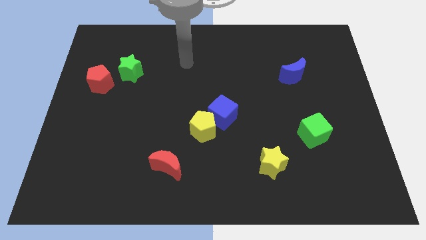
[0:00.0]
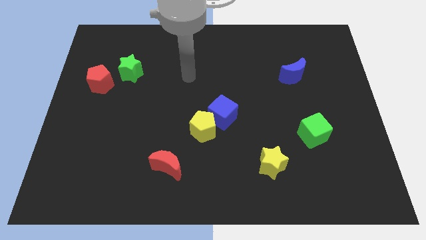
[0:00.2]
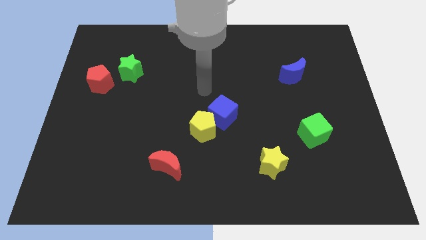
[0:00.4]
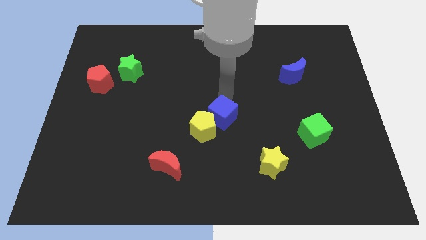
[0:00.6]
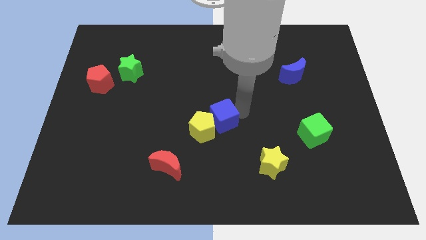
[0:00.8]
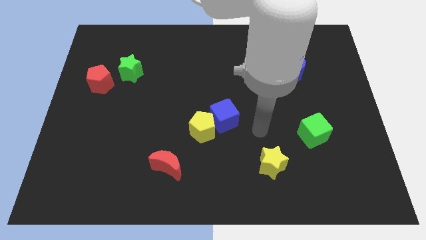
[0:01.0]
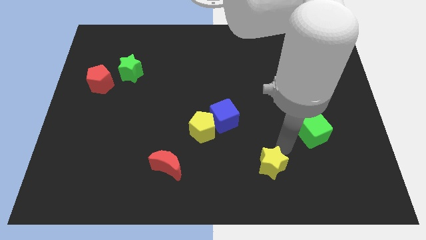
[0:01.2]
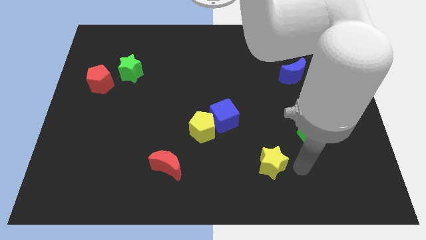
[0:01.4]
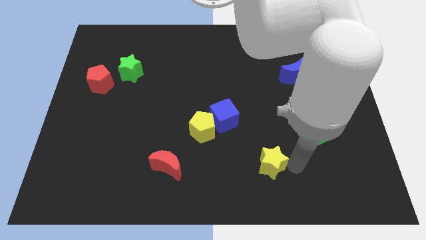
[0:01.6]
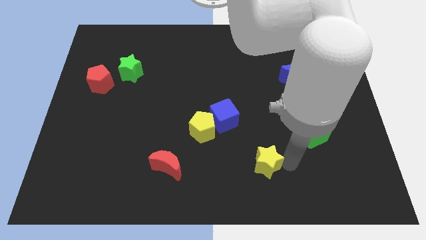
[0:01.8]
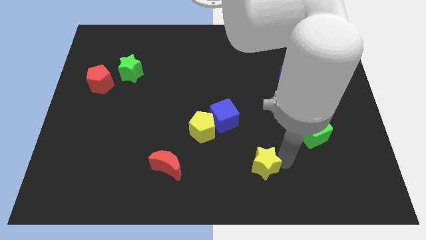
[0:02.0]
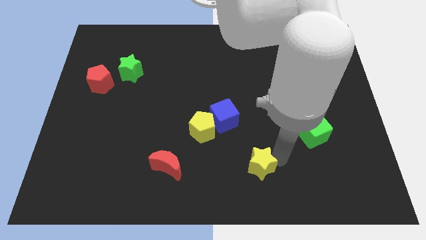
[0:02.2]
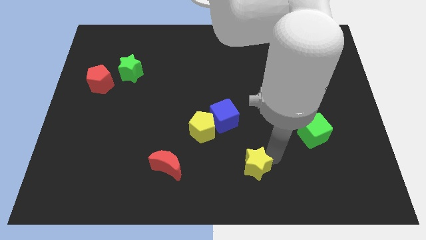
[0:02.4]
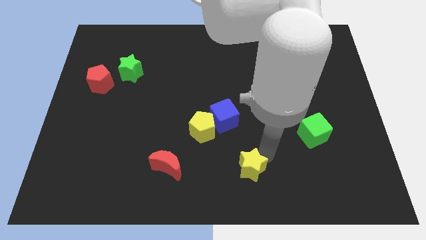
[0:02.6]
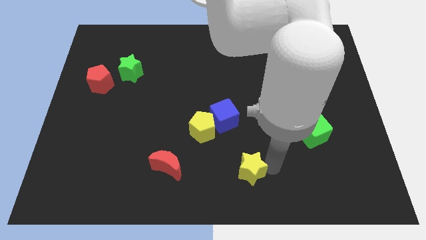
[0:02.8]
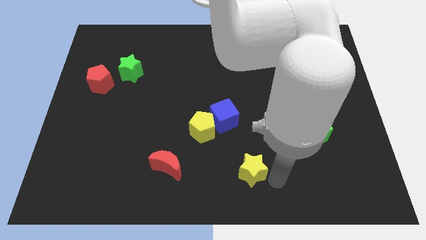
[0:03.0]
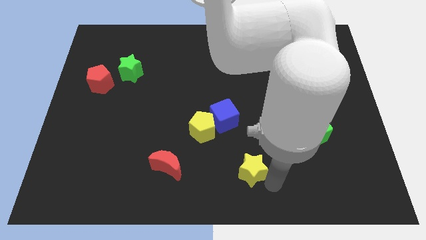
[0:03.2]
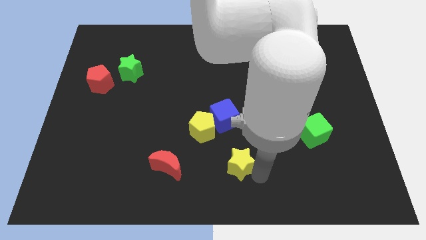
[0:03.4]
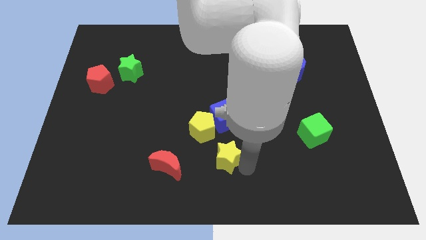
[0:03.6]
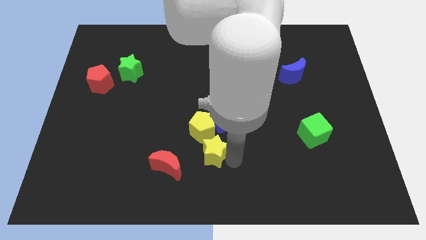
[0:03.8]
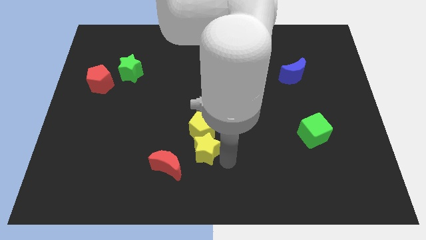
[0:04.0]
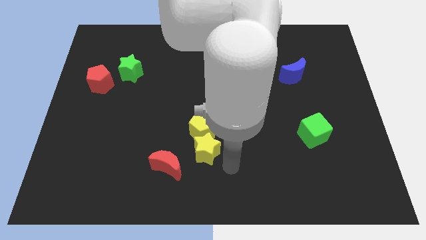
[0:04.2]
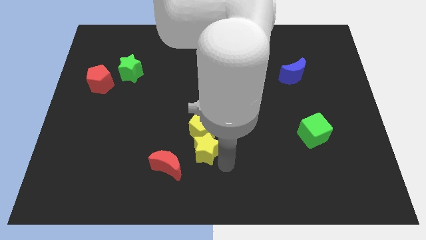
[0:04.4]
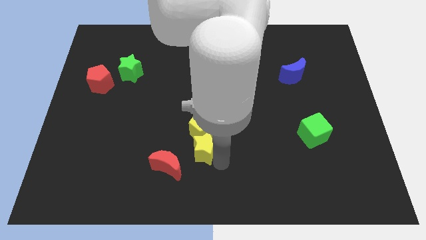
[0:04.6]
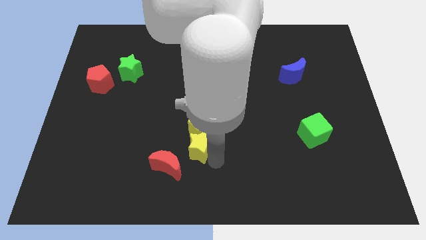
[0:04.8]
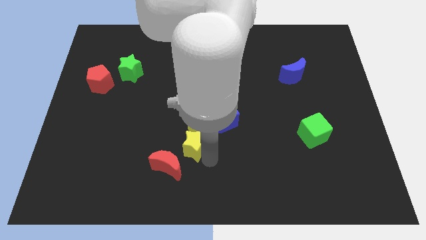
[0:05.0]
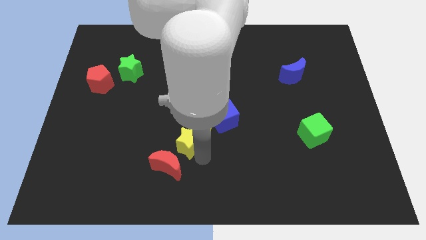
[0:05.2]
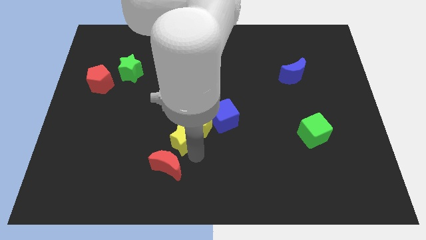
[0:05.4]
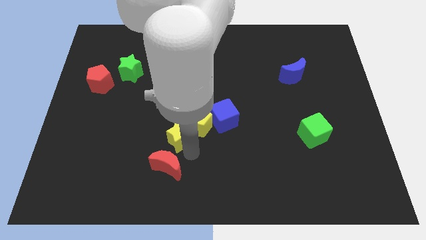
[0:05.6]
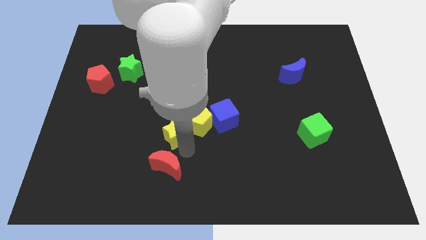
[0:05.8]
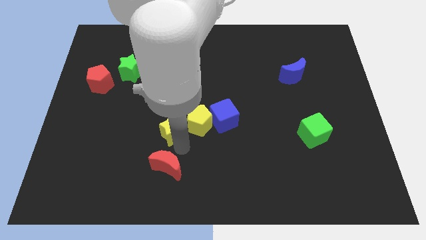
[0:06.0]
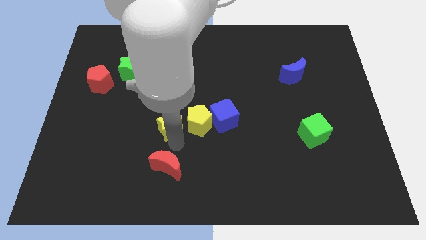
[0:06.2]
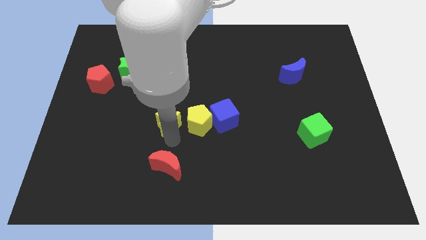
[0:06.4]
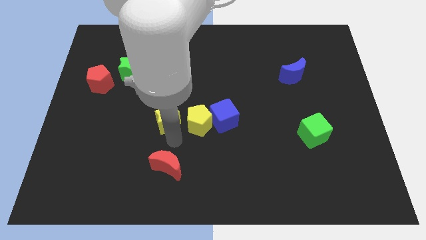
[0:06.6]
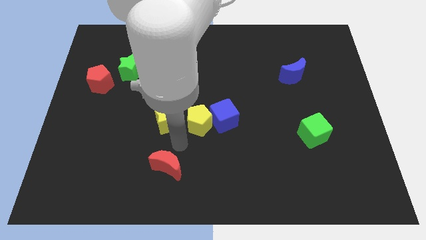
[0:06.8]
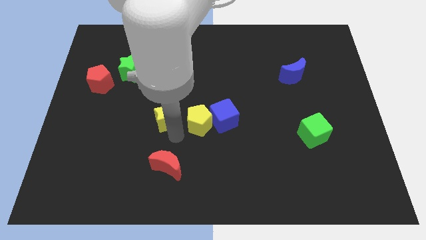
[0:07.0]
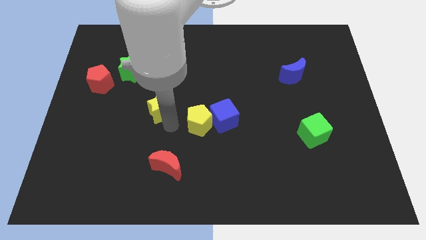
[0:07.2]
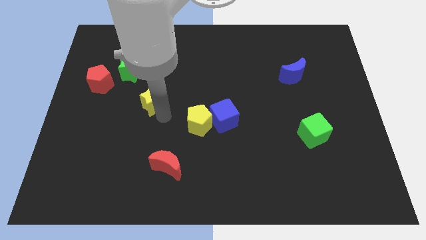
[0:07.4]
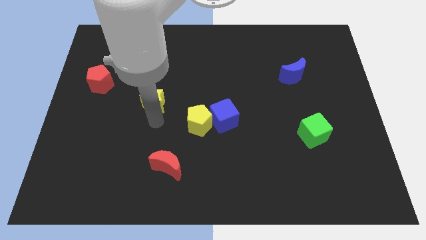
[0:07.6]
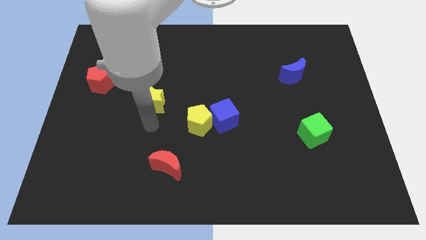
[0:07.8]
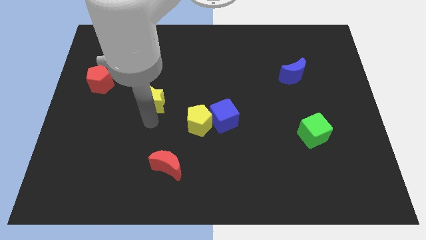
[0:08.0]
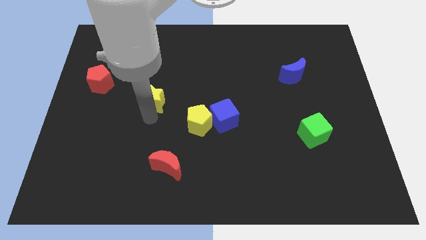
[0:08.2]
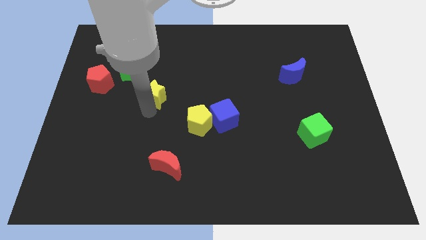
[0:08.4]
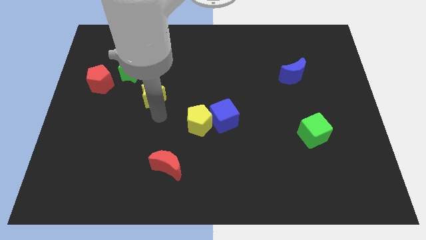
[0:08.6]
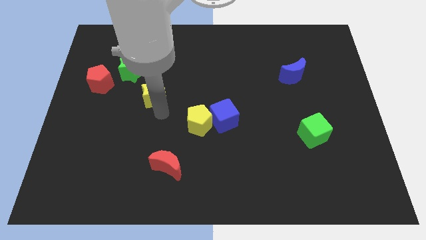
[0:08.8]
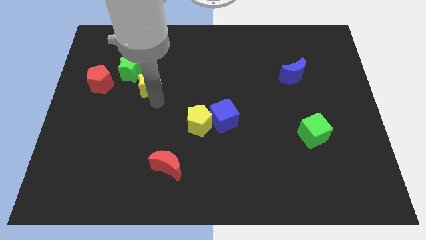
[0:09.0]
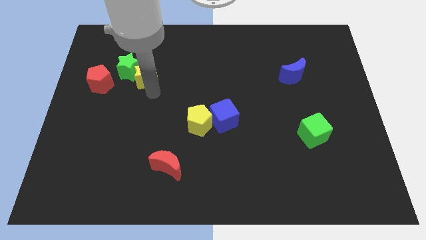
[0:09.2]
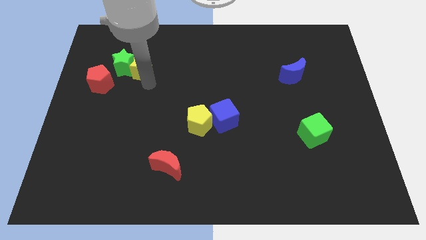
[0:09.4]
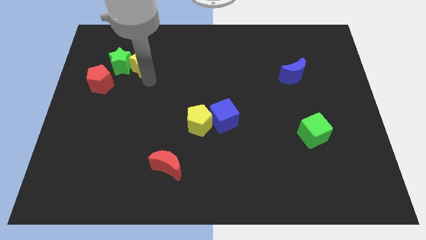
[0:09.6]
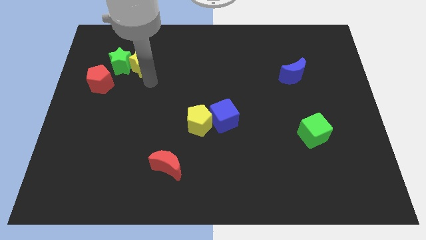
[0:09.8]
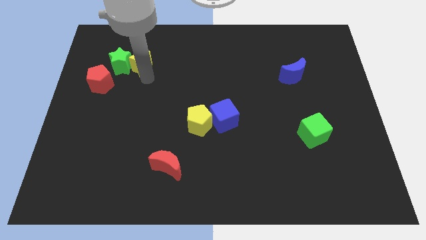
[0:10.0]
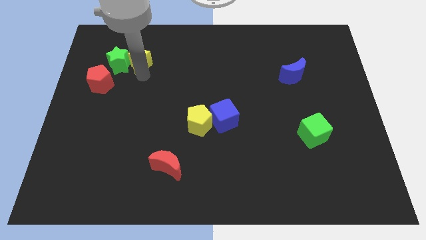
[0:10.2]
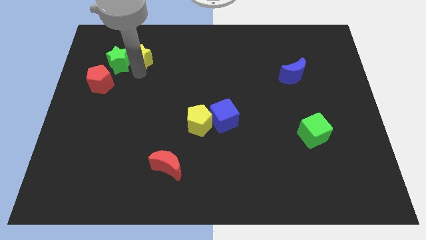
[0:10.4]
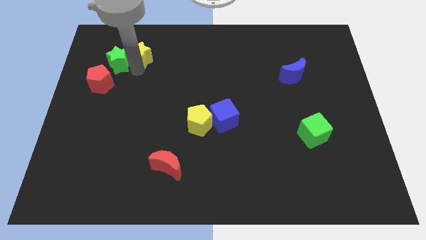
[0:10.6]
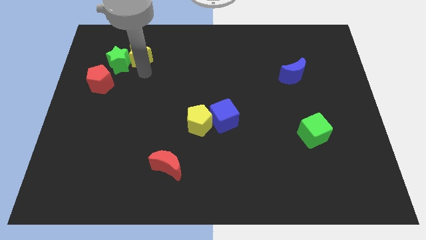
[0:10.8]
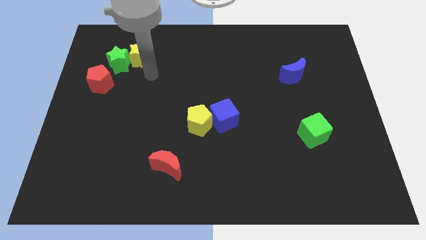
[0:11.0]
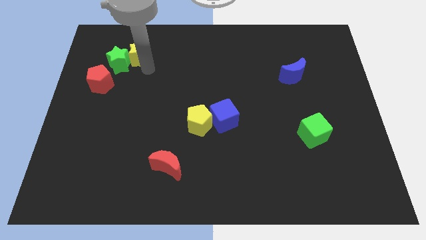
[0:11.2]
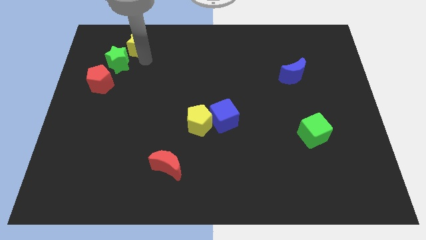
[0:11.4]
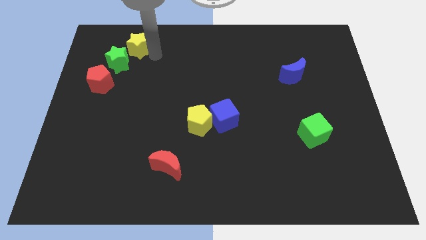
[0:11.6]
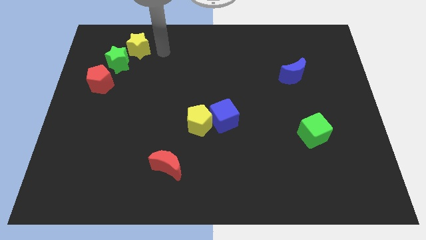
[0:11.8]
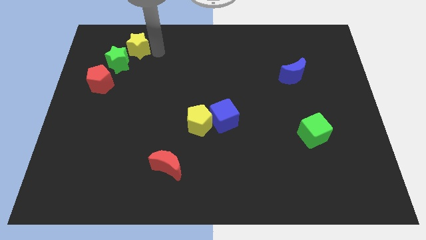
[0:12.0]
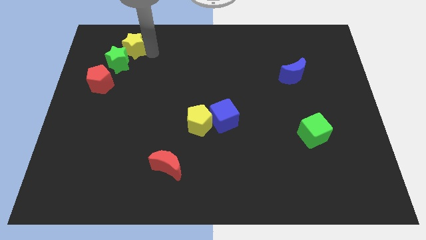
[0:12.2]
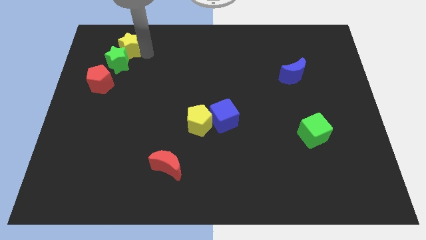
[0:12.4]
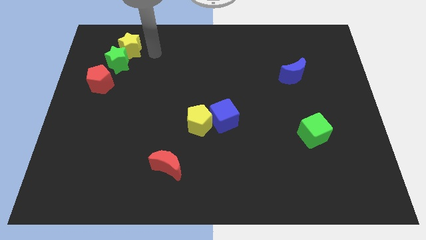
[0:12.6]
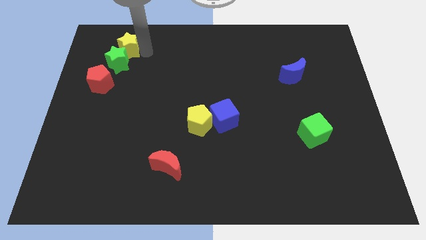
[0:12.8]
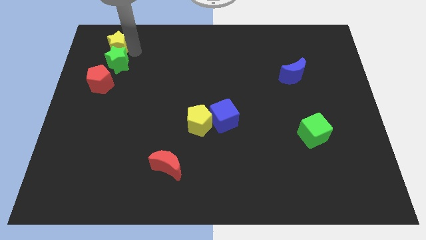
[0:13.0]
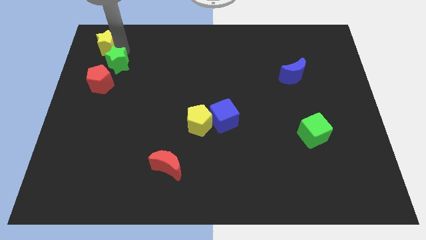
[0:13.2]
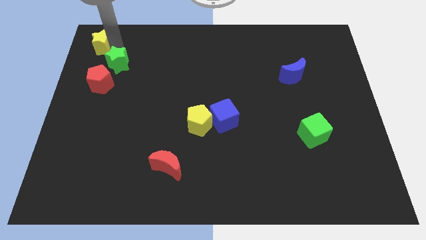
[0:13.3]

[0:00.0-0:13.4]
push the yellow star to the top left
